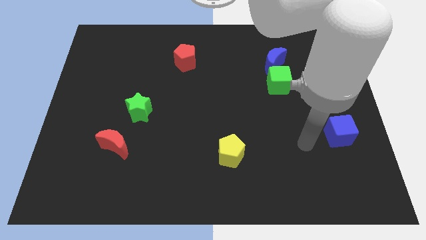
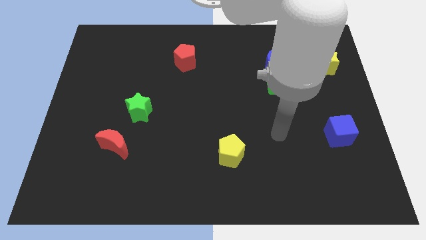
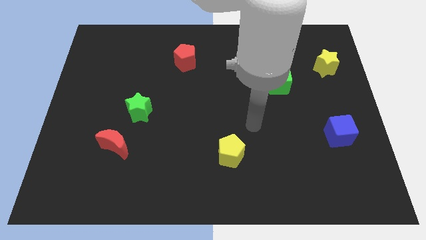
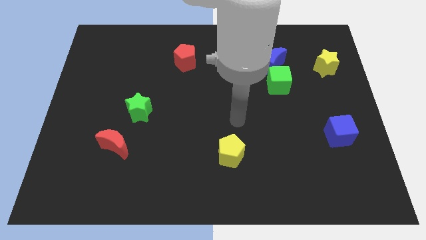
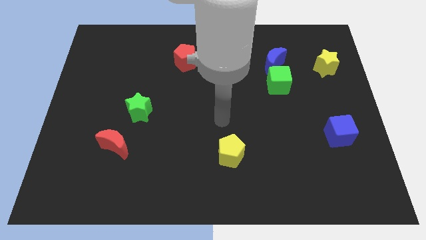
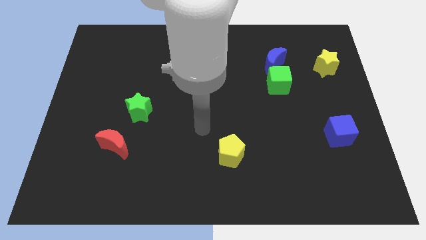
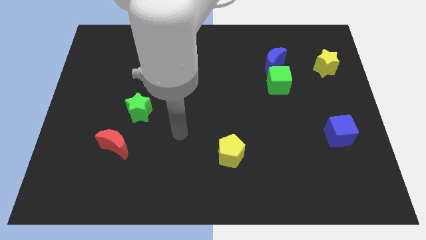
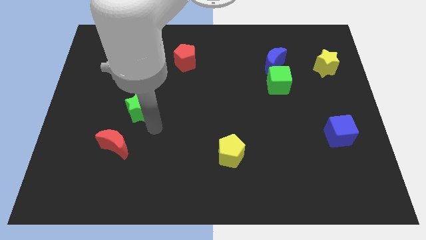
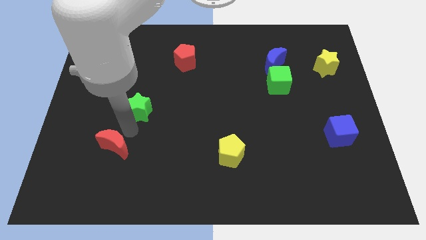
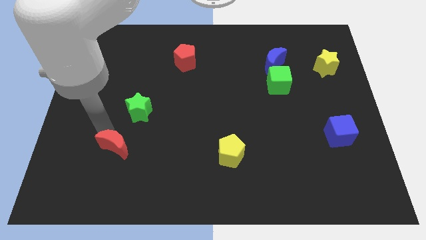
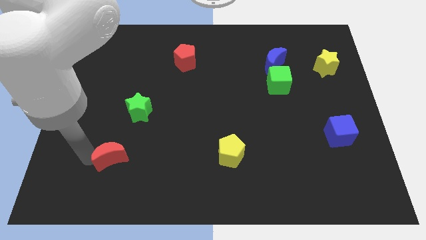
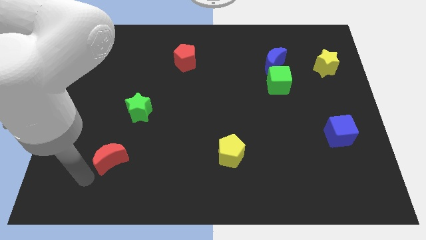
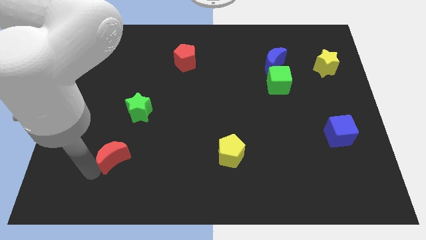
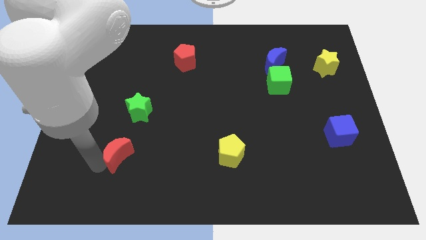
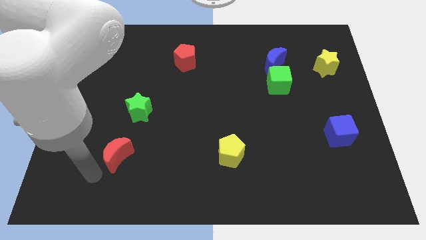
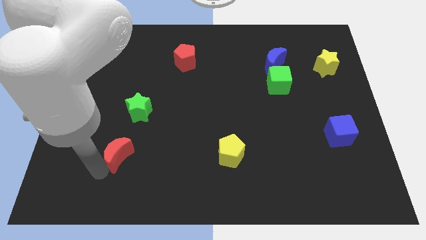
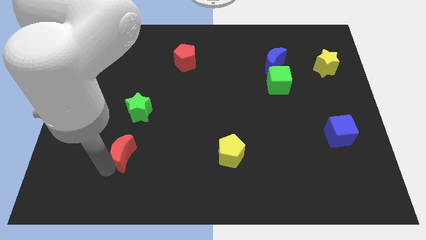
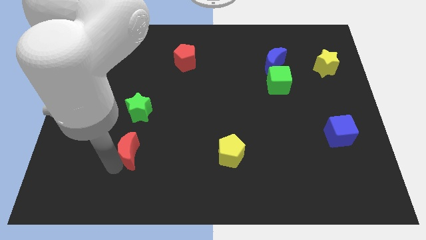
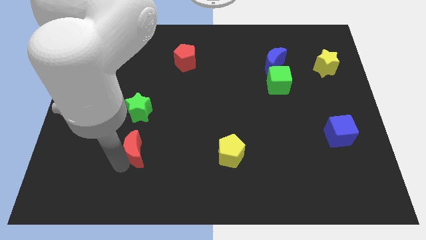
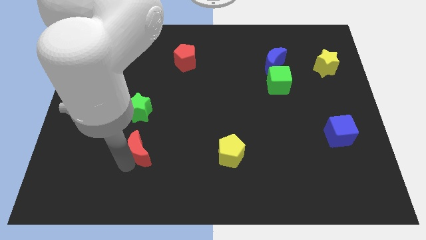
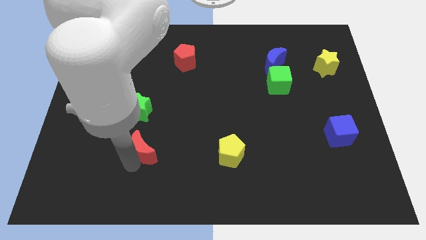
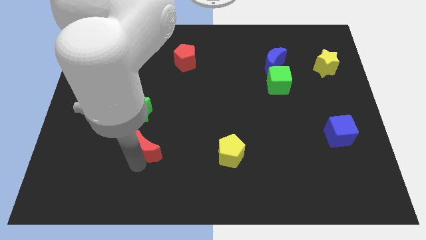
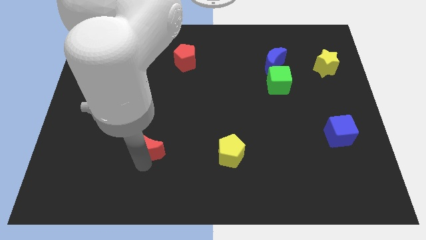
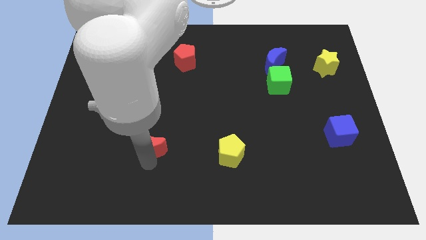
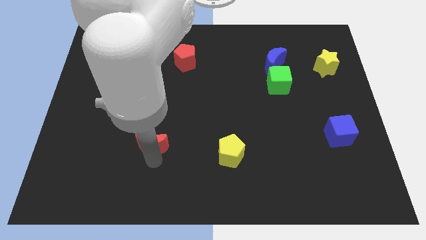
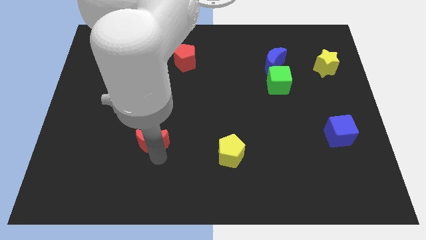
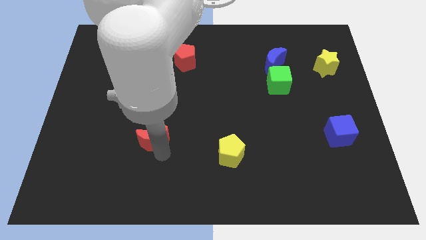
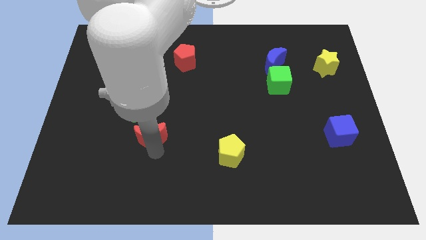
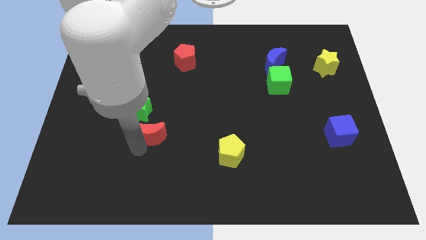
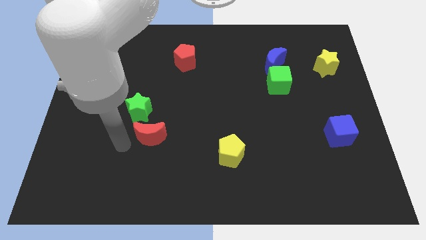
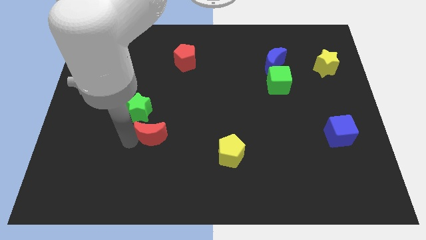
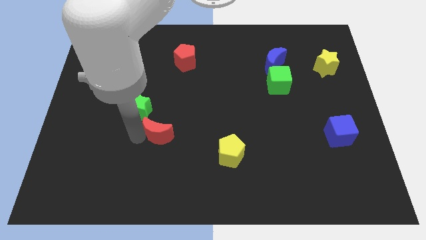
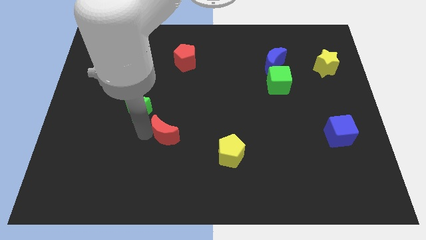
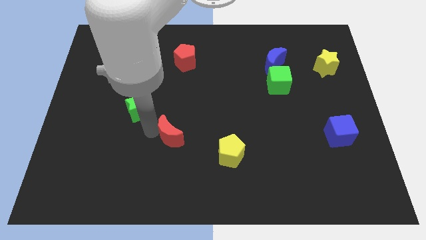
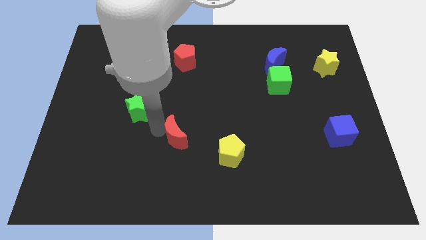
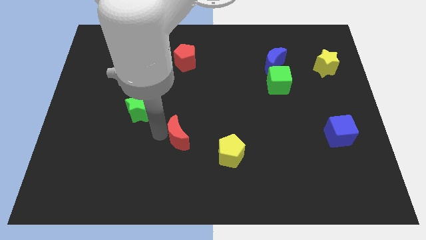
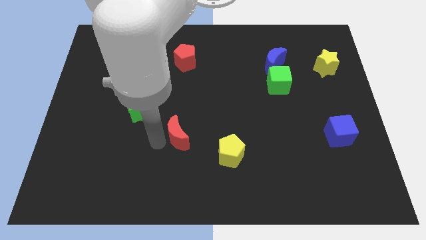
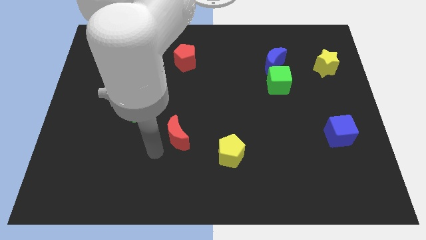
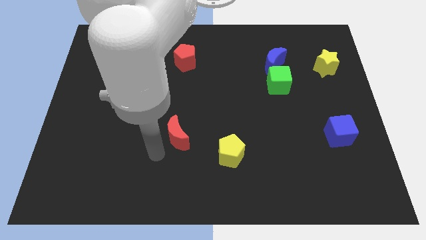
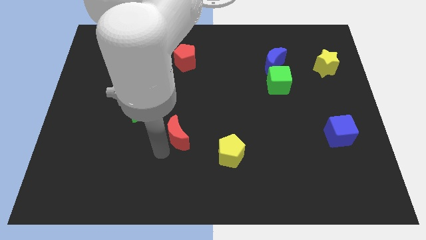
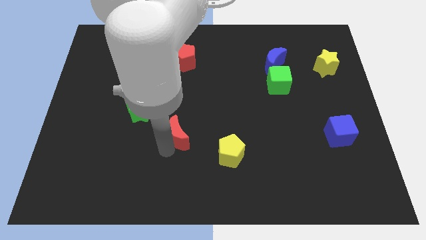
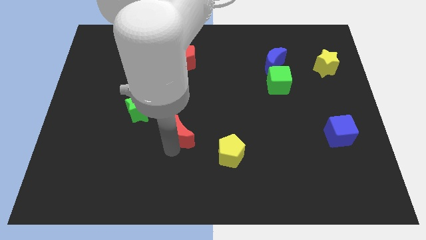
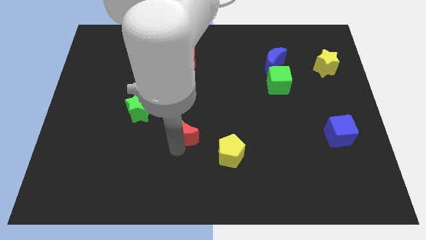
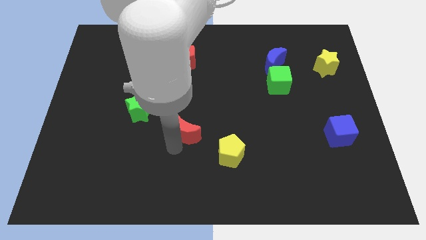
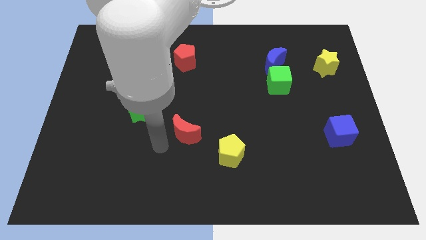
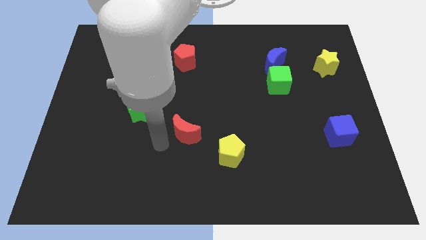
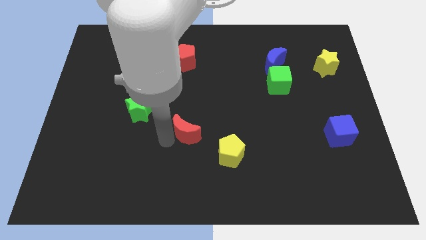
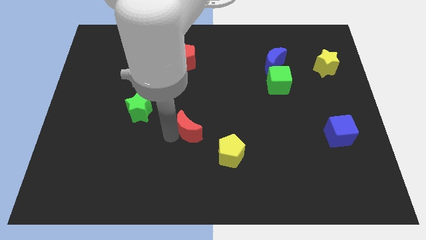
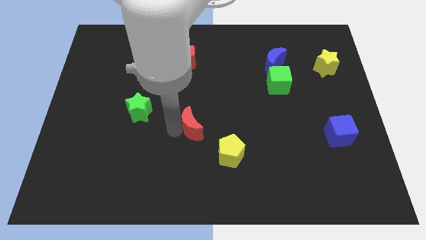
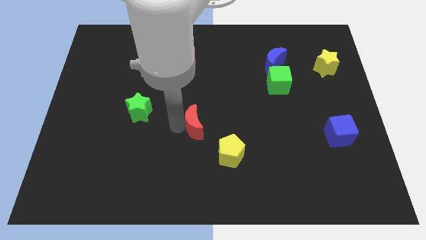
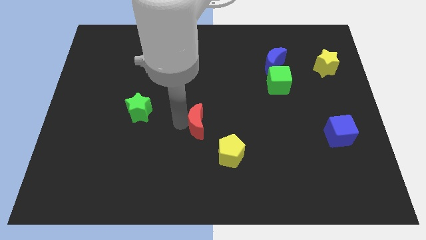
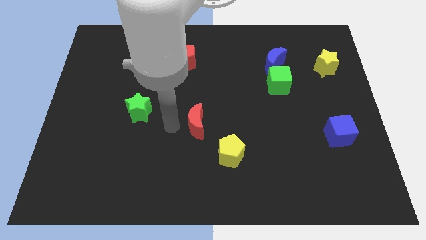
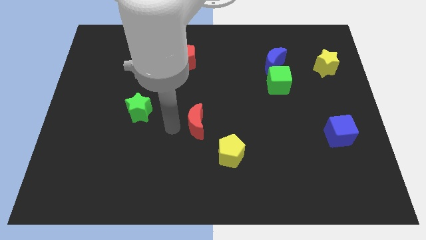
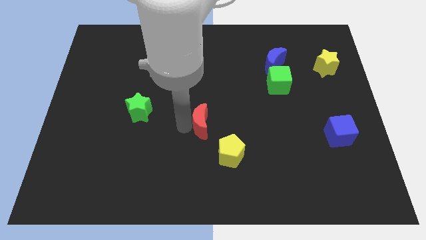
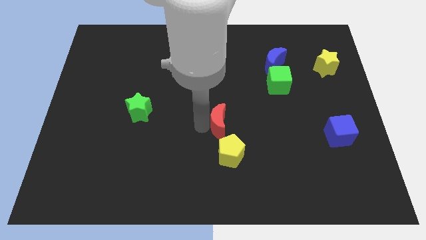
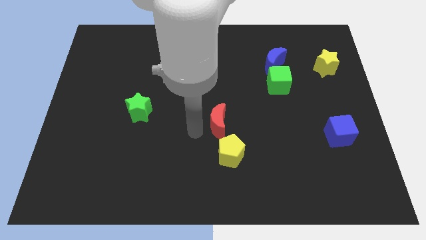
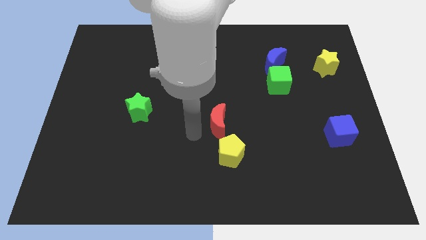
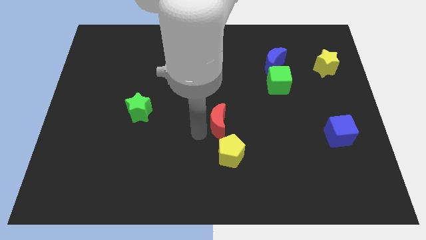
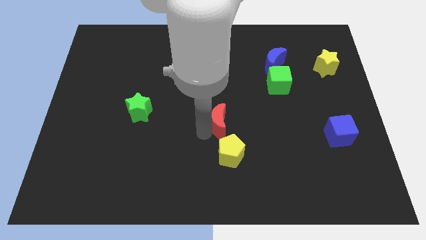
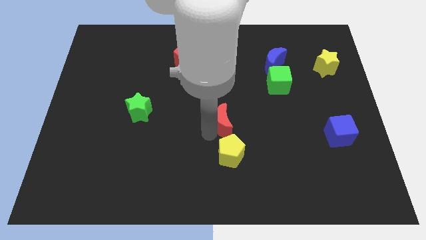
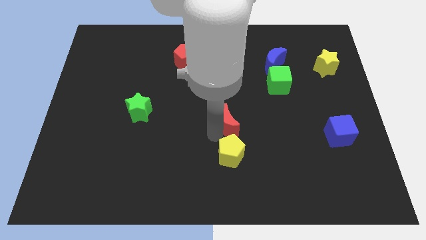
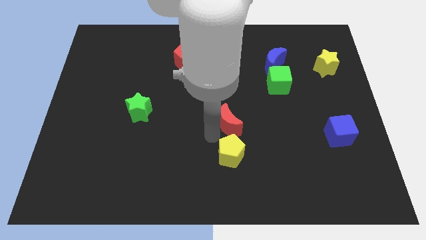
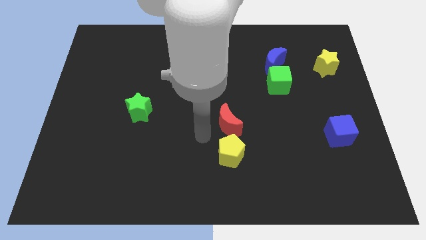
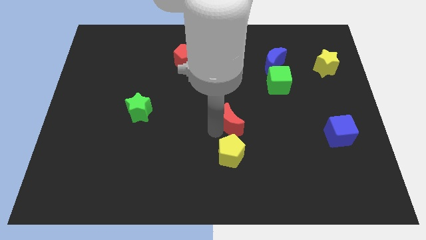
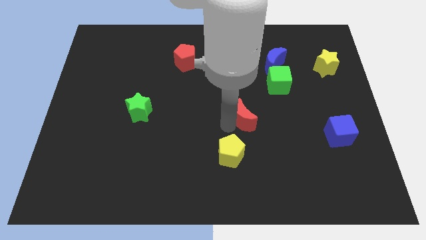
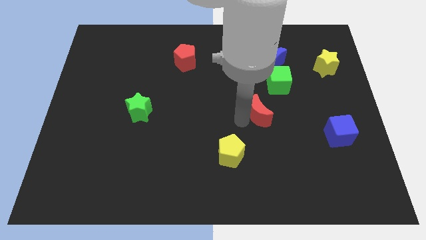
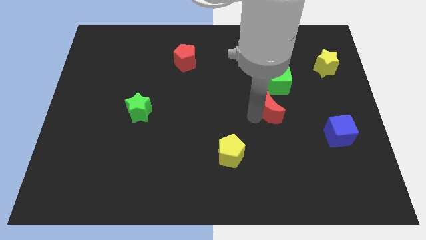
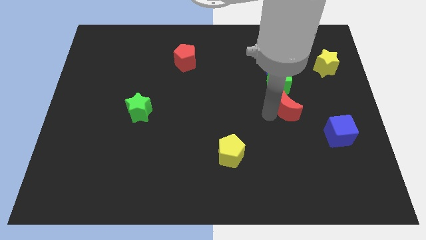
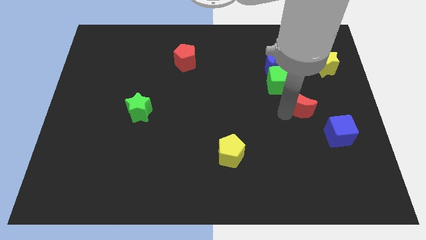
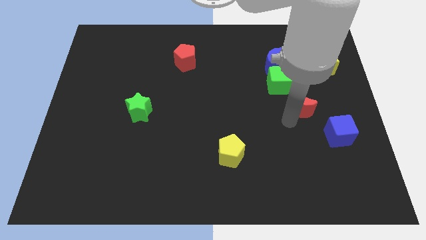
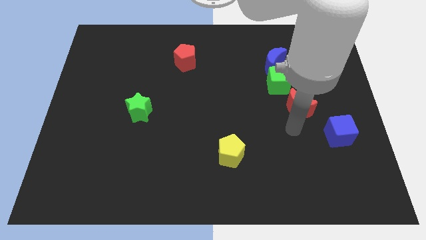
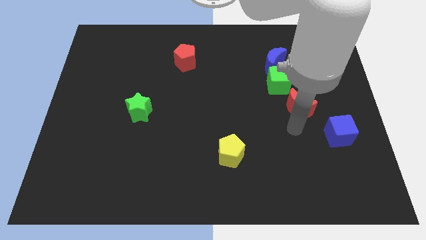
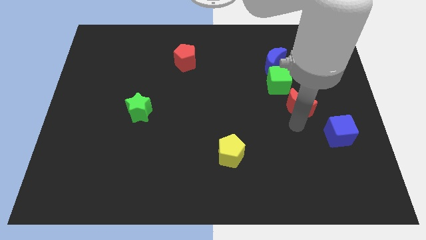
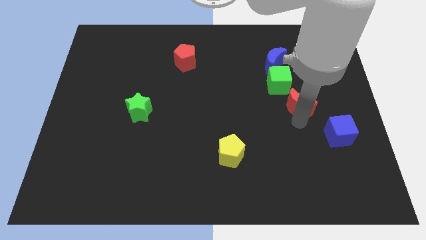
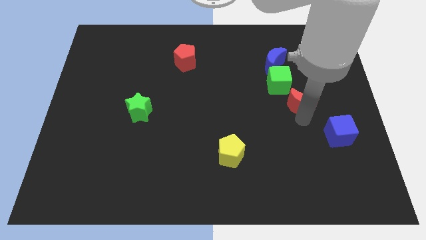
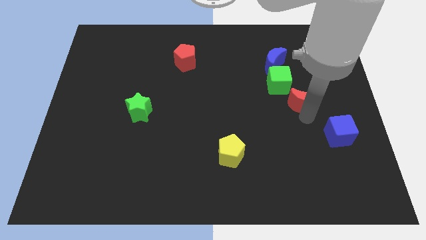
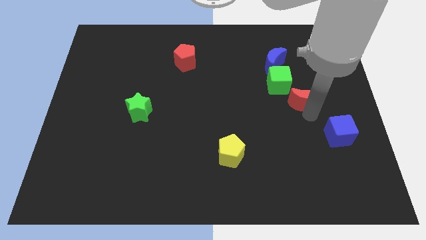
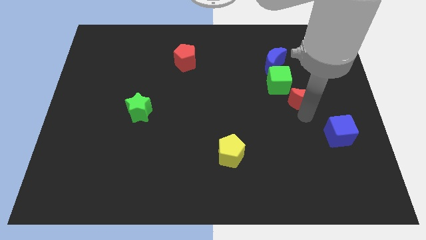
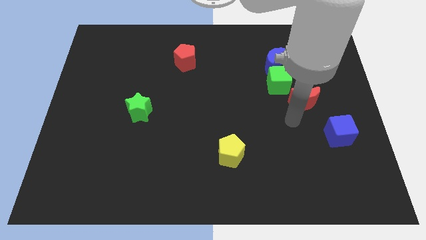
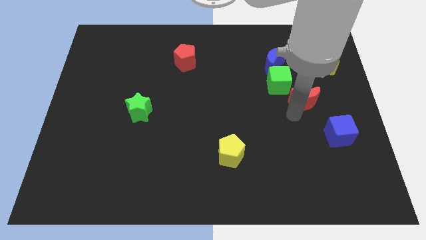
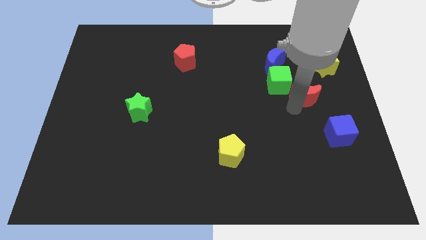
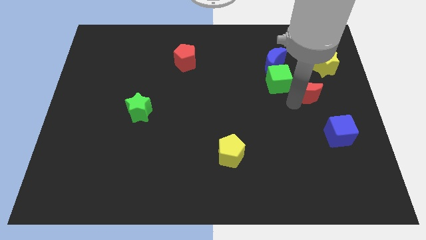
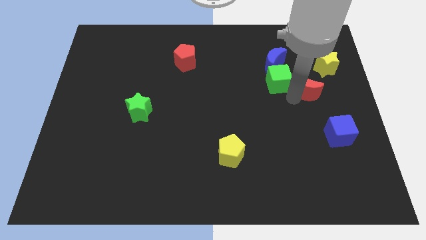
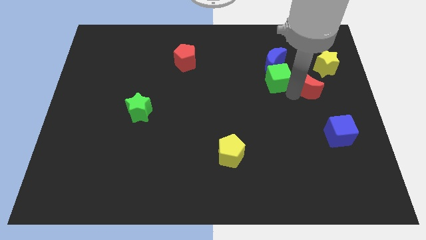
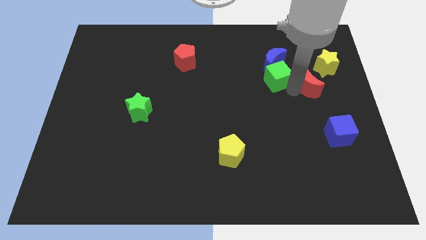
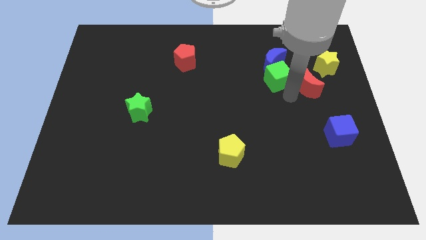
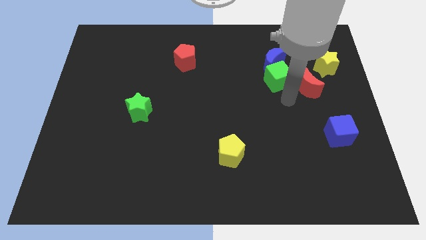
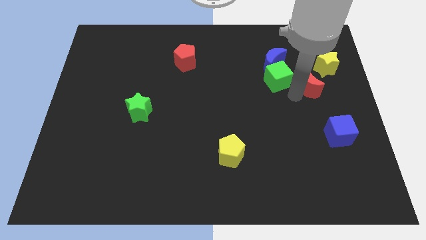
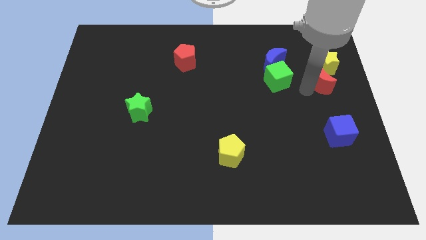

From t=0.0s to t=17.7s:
put the red moon towards the yellow star
